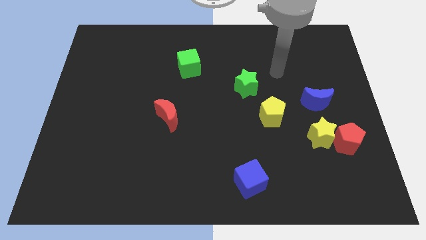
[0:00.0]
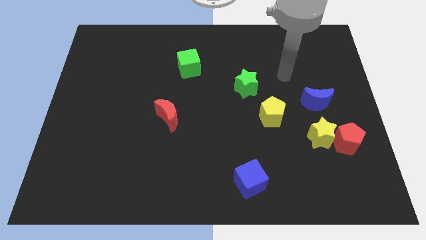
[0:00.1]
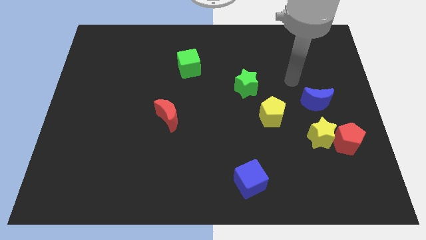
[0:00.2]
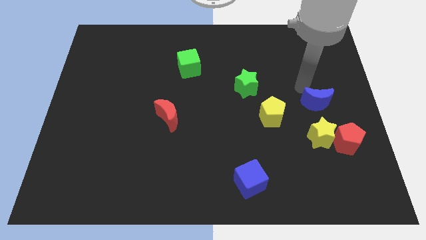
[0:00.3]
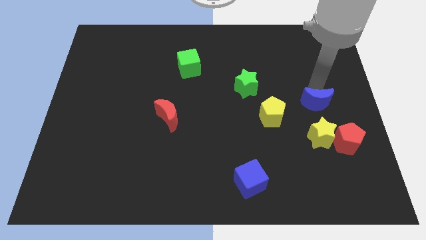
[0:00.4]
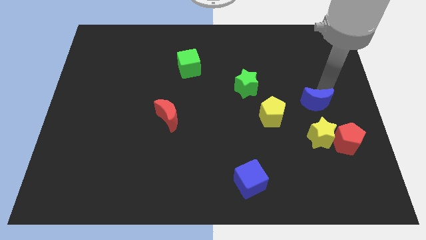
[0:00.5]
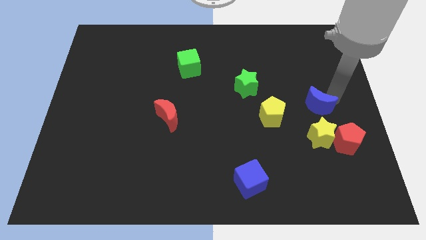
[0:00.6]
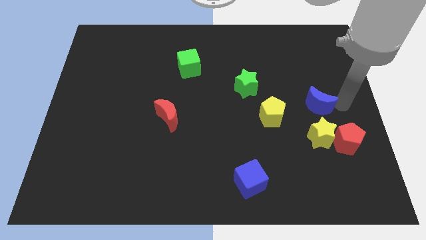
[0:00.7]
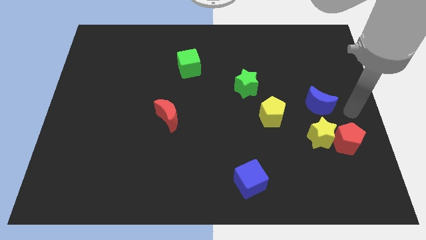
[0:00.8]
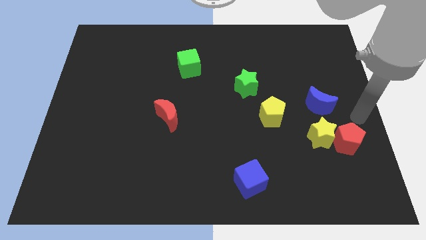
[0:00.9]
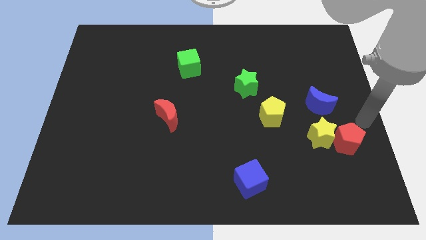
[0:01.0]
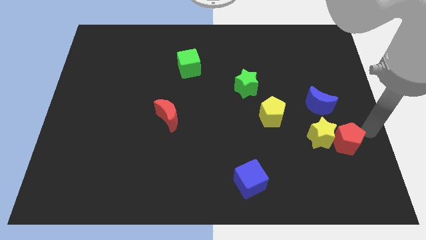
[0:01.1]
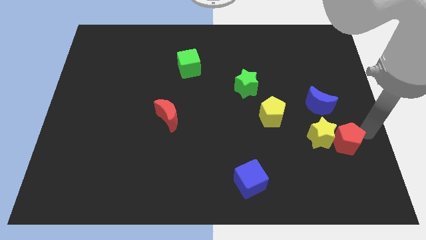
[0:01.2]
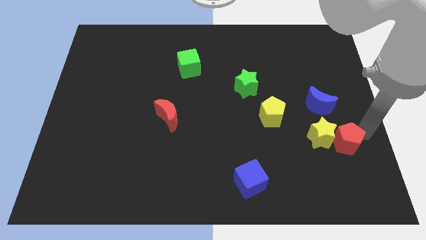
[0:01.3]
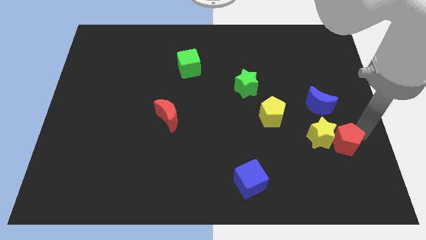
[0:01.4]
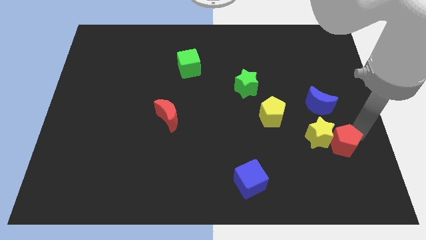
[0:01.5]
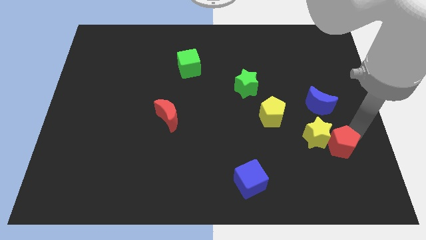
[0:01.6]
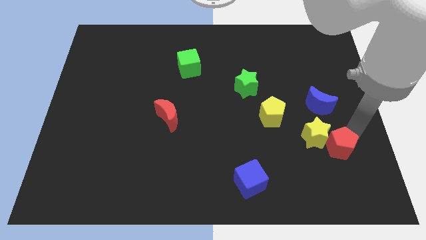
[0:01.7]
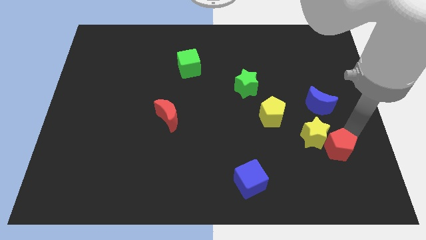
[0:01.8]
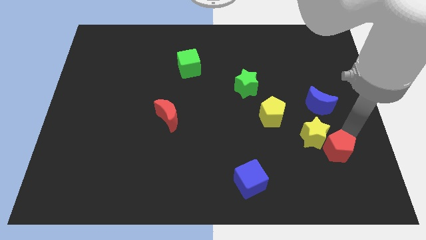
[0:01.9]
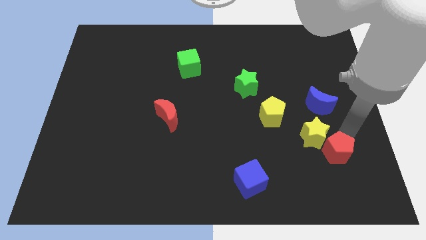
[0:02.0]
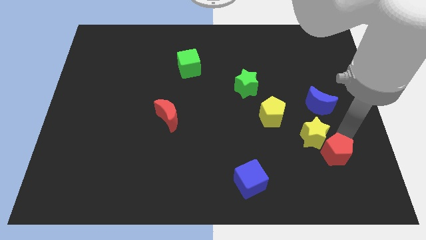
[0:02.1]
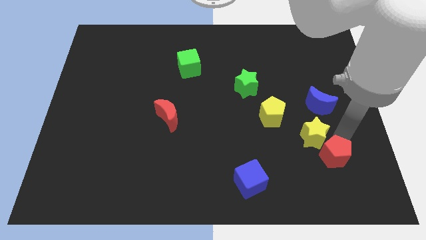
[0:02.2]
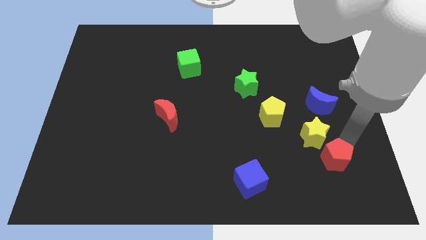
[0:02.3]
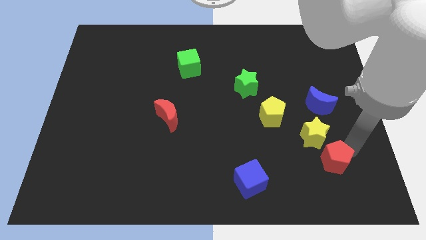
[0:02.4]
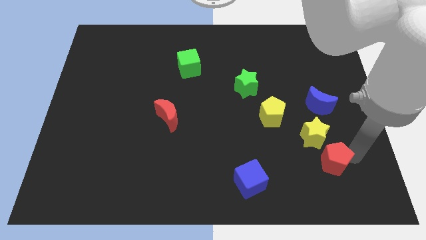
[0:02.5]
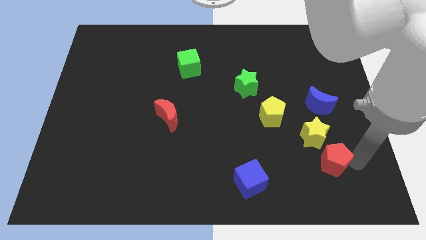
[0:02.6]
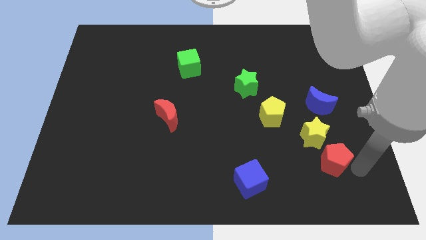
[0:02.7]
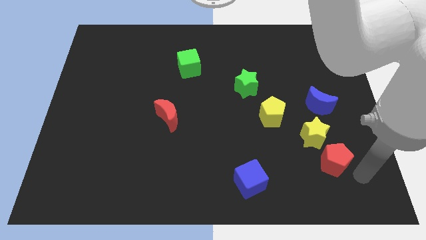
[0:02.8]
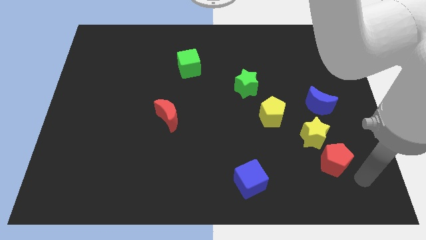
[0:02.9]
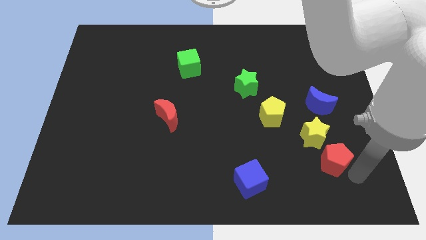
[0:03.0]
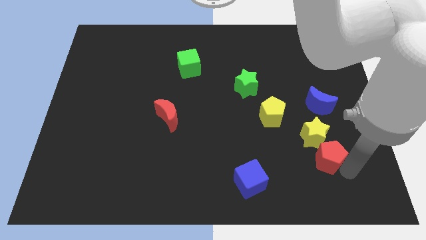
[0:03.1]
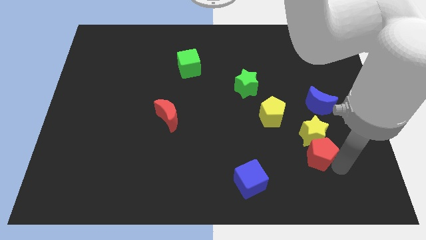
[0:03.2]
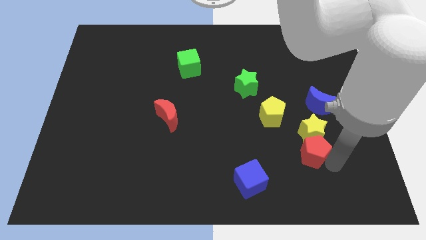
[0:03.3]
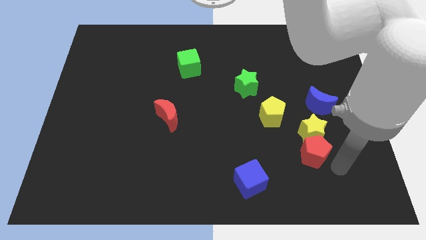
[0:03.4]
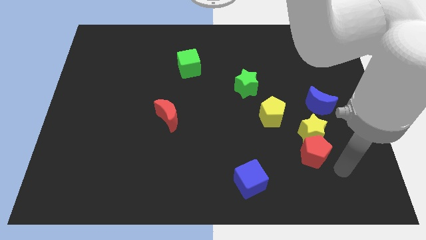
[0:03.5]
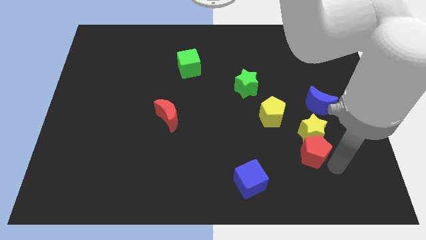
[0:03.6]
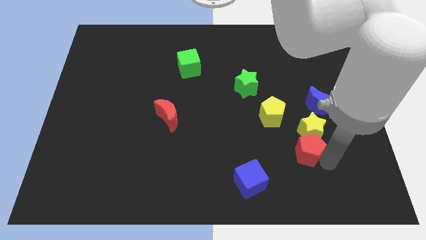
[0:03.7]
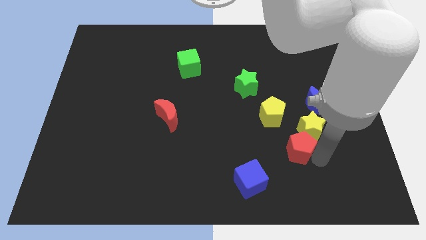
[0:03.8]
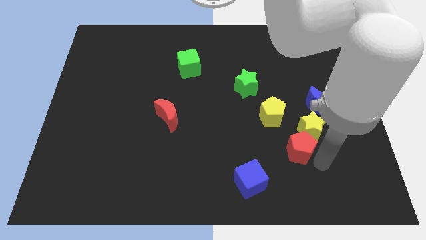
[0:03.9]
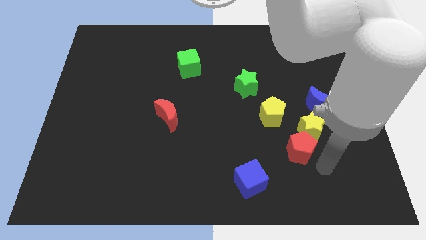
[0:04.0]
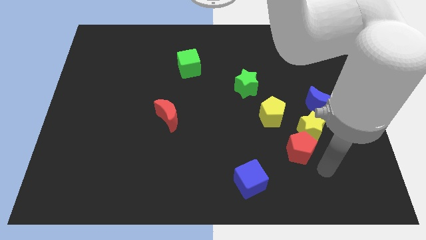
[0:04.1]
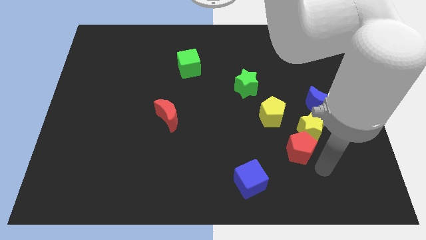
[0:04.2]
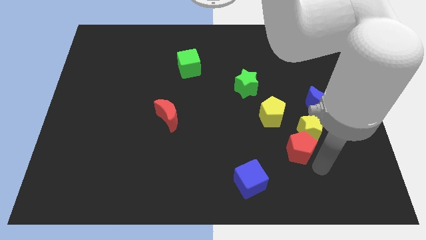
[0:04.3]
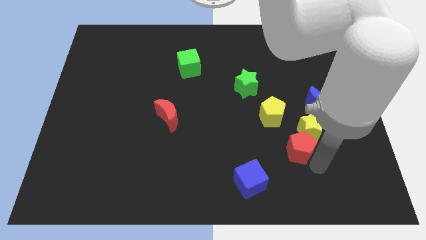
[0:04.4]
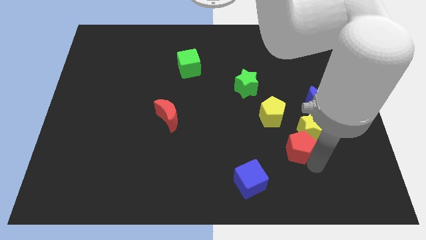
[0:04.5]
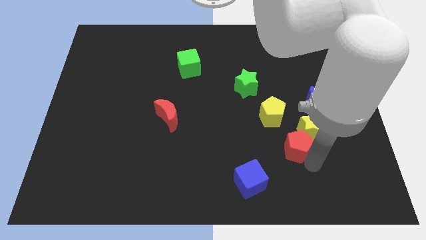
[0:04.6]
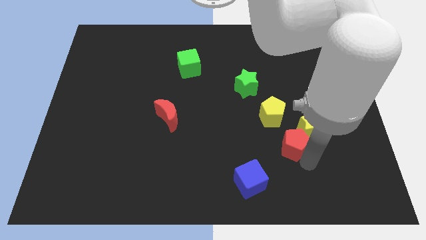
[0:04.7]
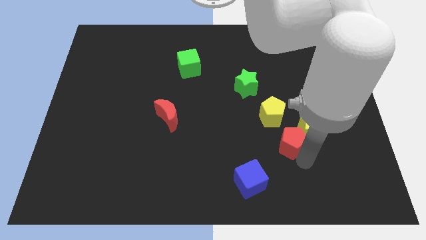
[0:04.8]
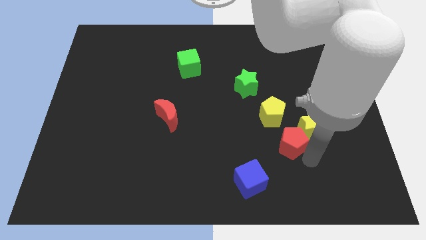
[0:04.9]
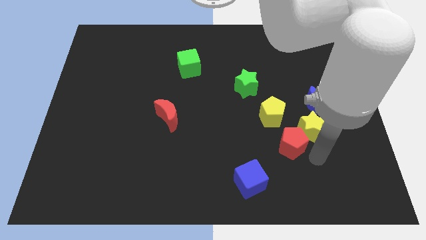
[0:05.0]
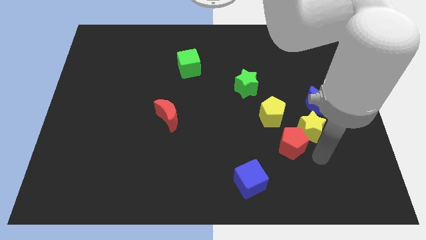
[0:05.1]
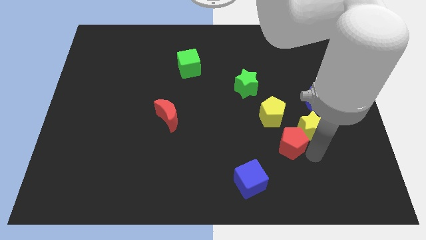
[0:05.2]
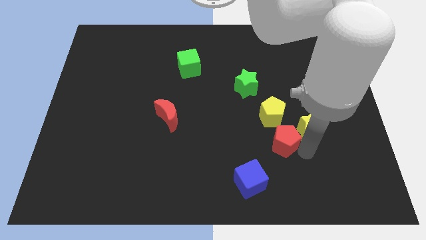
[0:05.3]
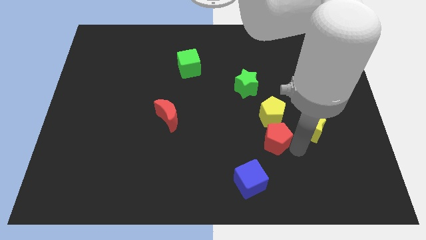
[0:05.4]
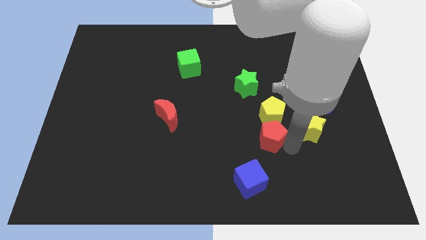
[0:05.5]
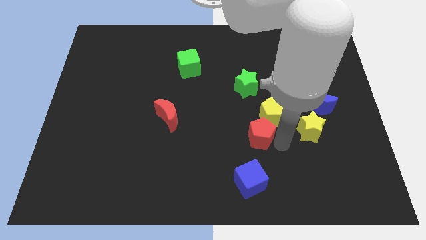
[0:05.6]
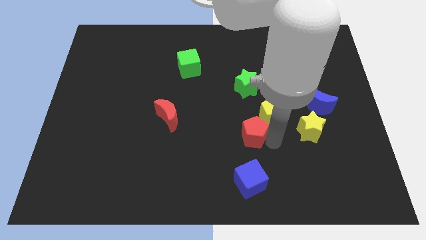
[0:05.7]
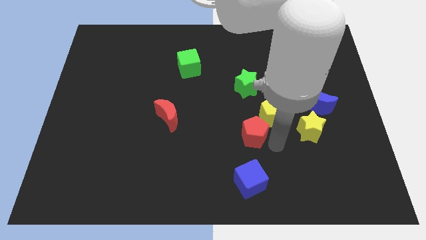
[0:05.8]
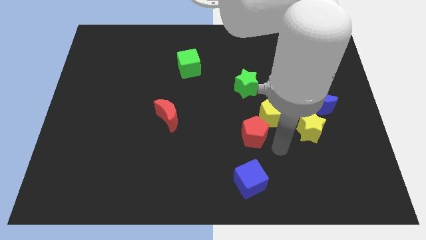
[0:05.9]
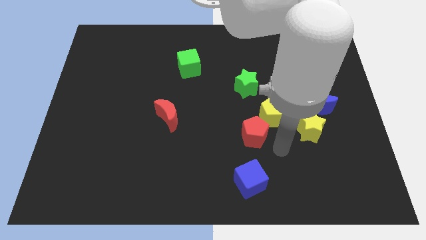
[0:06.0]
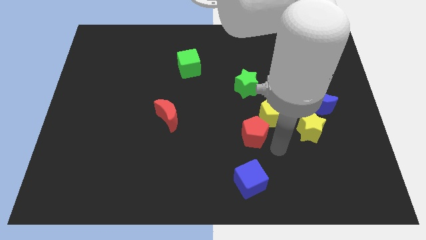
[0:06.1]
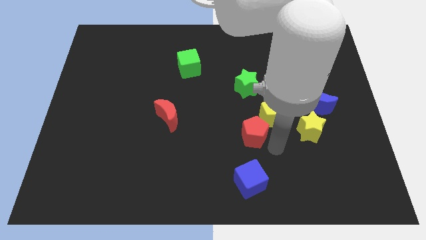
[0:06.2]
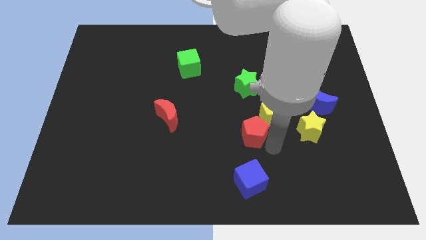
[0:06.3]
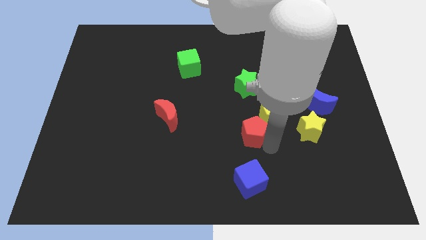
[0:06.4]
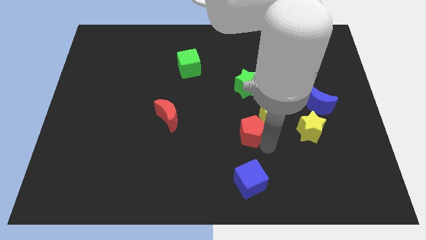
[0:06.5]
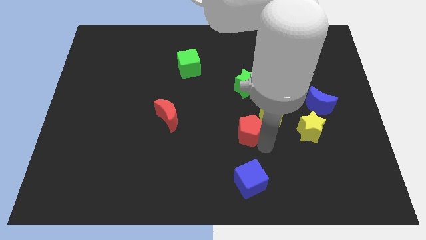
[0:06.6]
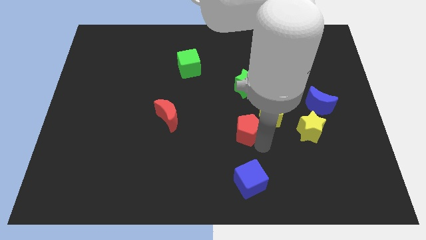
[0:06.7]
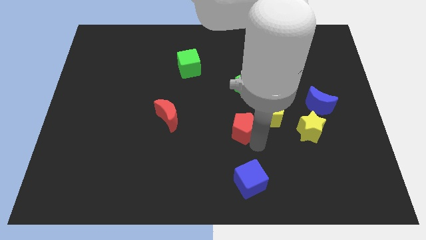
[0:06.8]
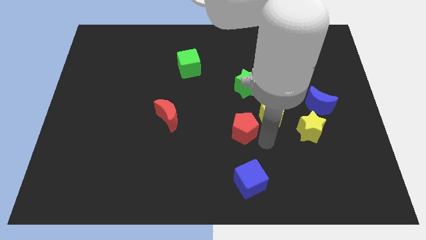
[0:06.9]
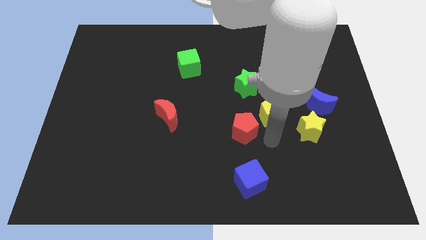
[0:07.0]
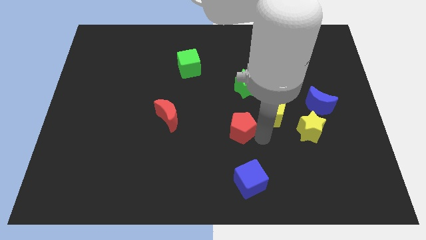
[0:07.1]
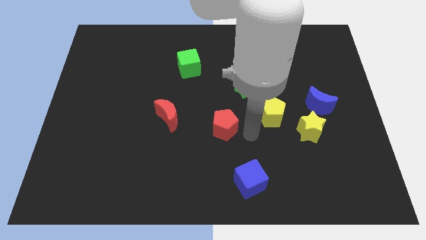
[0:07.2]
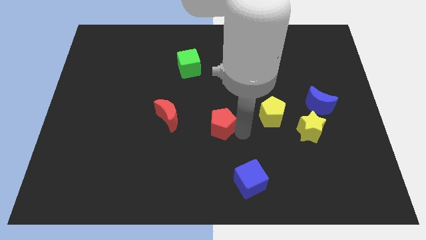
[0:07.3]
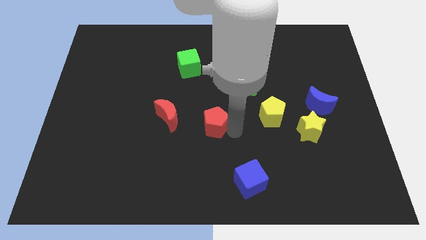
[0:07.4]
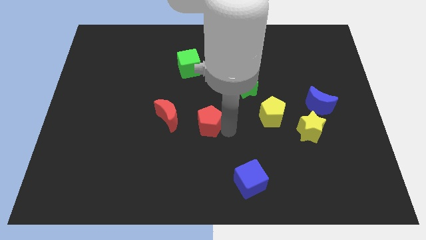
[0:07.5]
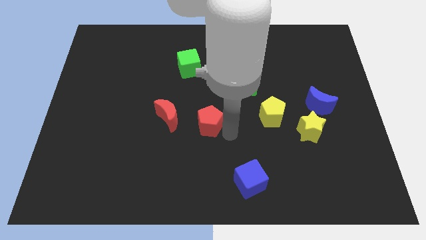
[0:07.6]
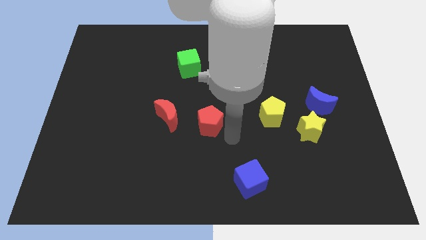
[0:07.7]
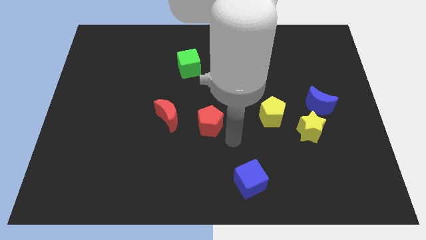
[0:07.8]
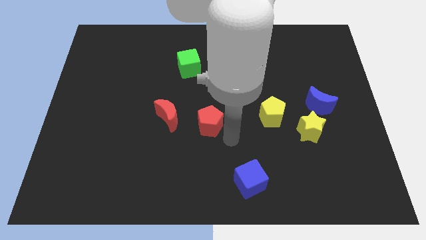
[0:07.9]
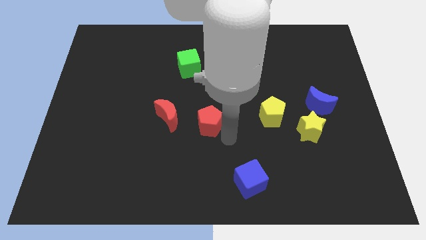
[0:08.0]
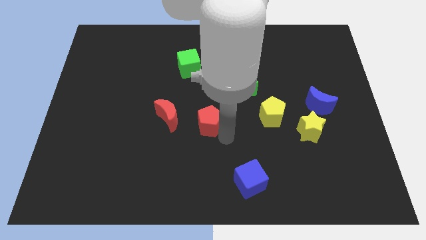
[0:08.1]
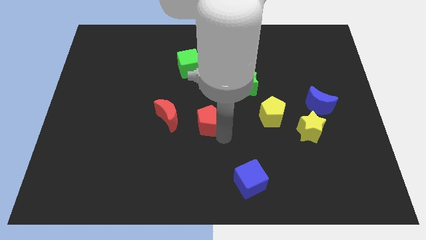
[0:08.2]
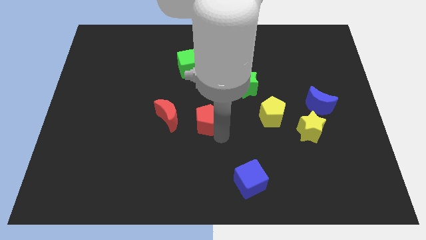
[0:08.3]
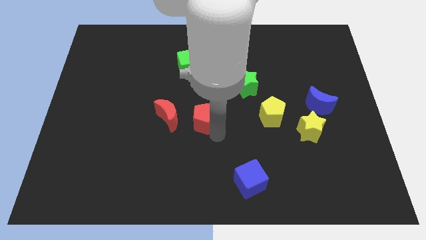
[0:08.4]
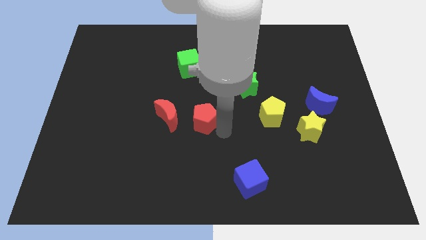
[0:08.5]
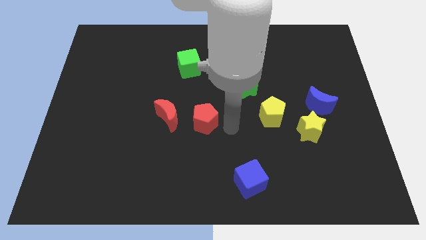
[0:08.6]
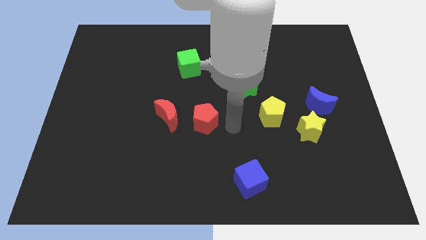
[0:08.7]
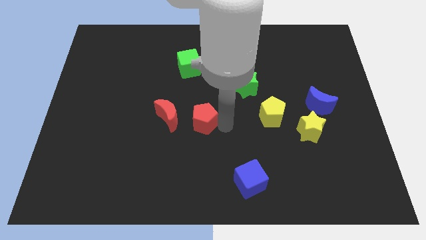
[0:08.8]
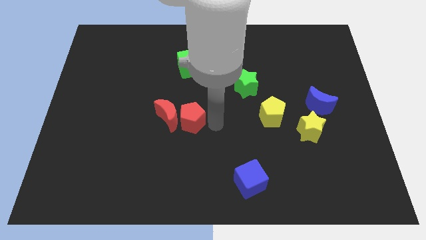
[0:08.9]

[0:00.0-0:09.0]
move the red pentagon towards the red moon
